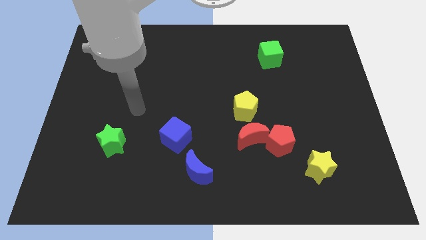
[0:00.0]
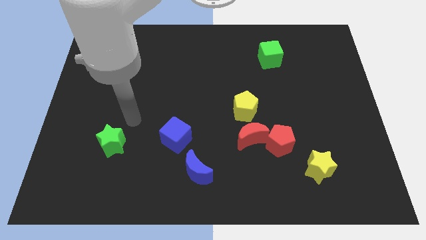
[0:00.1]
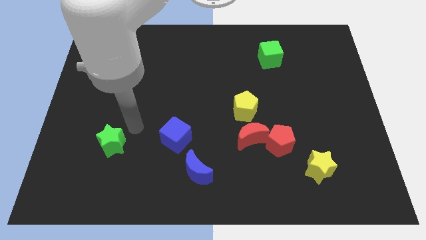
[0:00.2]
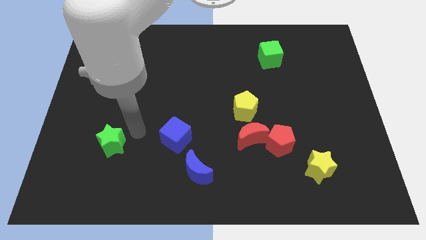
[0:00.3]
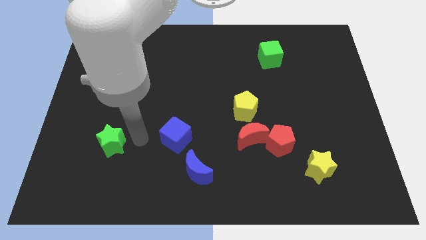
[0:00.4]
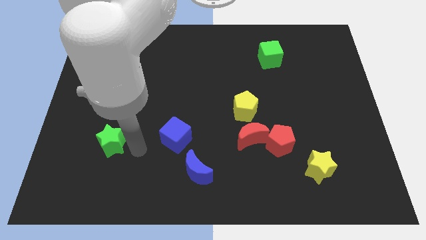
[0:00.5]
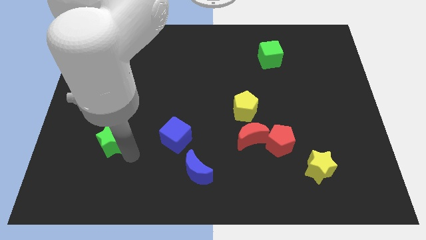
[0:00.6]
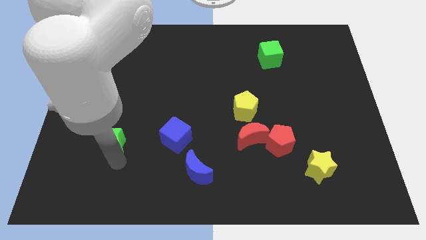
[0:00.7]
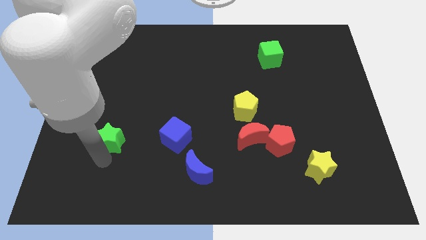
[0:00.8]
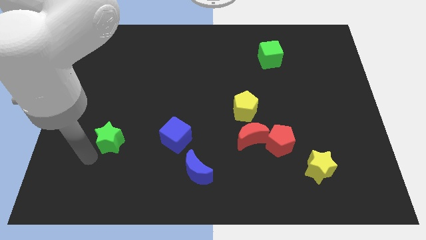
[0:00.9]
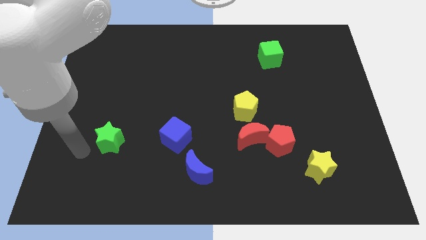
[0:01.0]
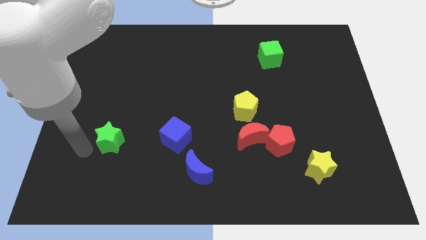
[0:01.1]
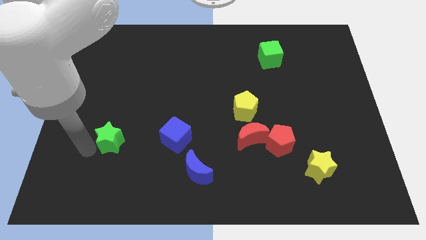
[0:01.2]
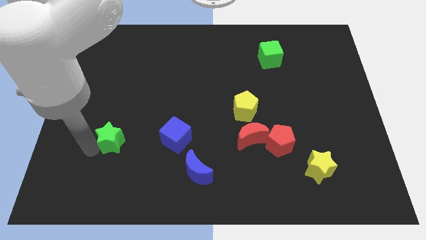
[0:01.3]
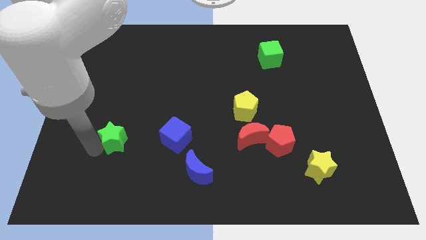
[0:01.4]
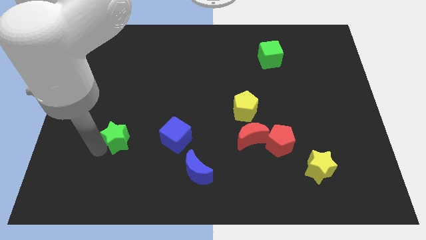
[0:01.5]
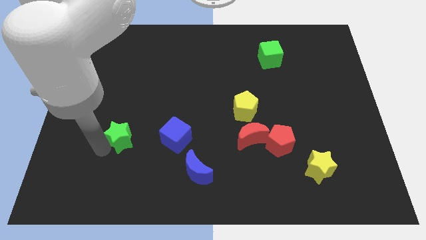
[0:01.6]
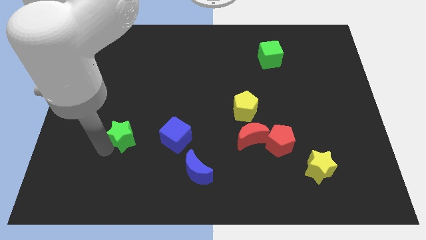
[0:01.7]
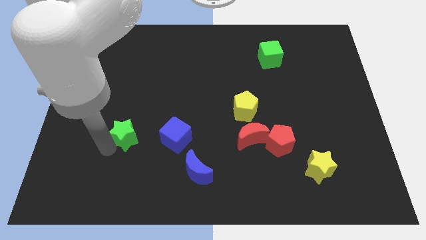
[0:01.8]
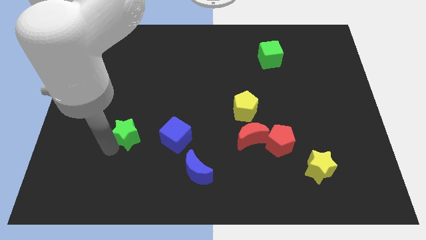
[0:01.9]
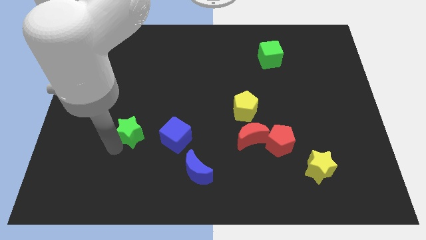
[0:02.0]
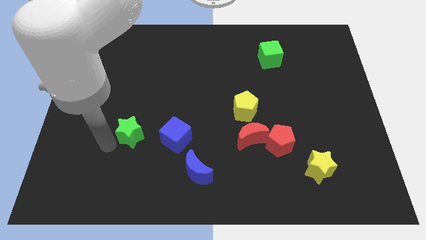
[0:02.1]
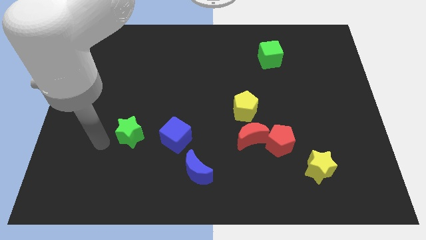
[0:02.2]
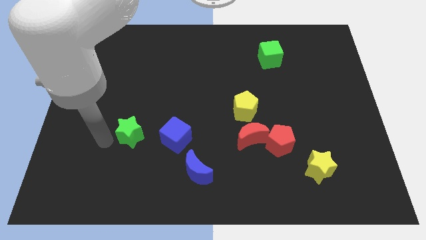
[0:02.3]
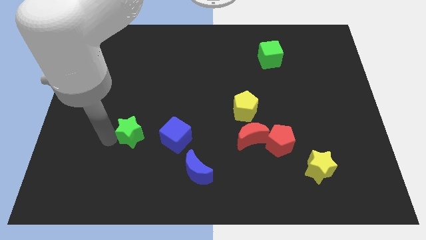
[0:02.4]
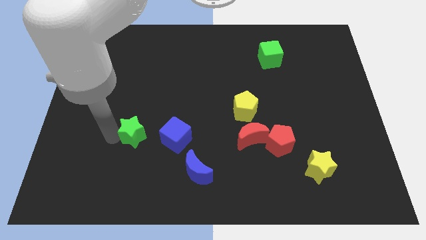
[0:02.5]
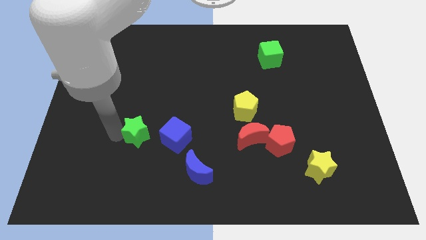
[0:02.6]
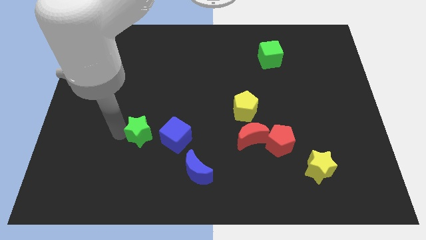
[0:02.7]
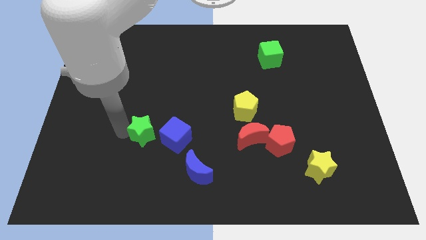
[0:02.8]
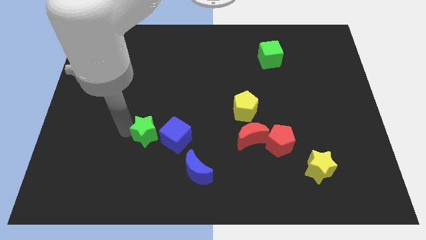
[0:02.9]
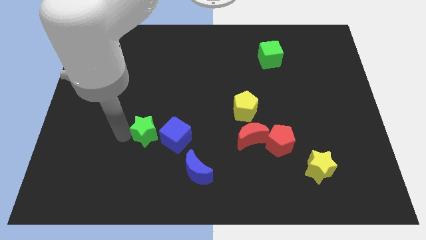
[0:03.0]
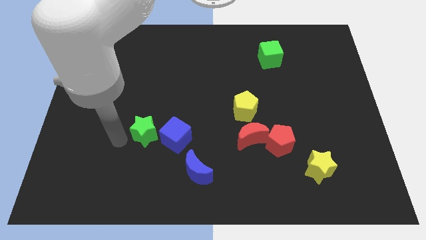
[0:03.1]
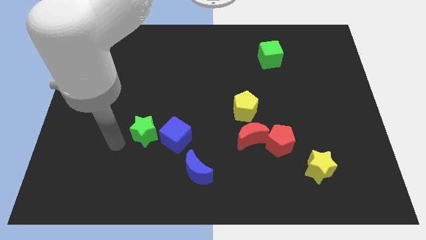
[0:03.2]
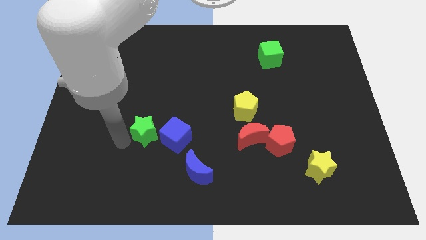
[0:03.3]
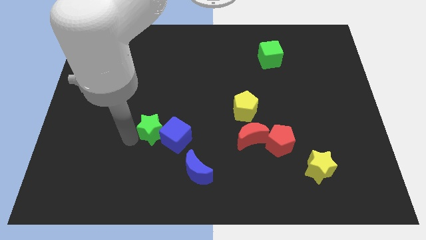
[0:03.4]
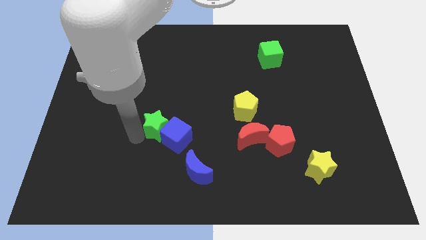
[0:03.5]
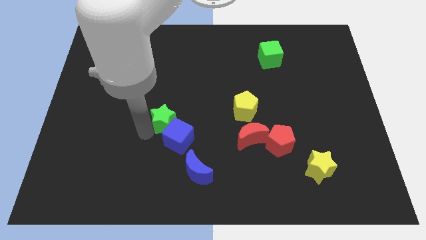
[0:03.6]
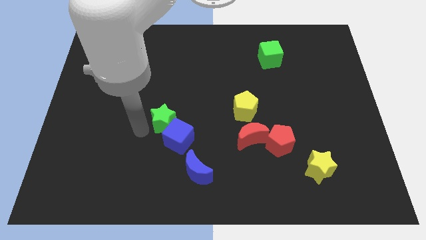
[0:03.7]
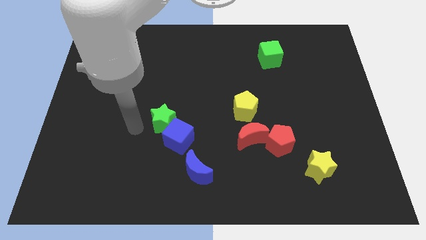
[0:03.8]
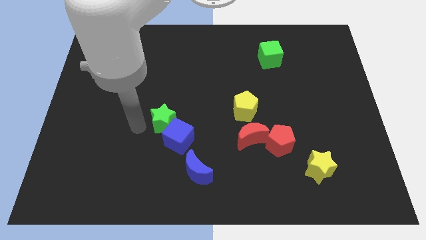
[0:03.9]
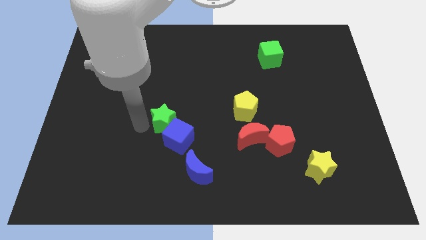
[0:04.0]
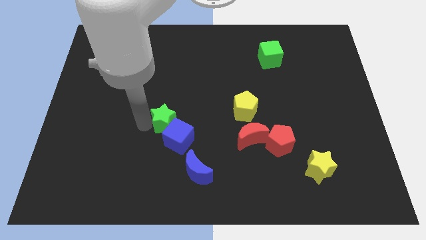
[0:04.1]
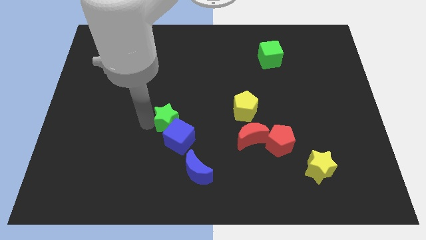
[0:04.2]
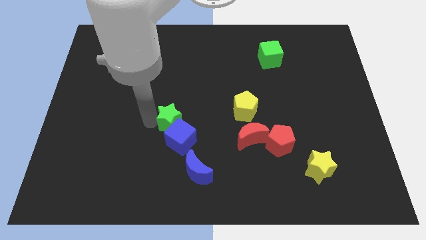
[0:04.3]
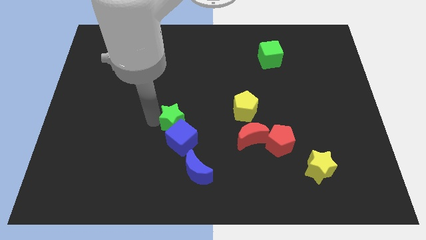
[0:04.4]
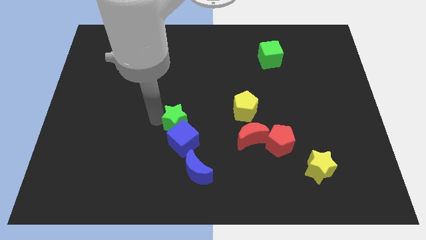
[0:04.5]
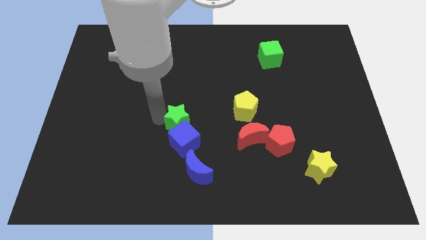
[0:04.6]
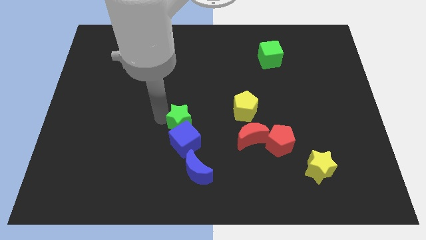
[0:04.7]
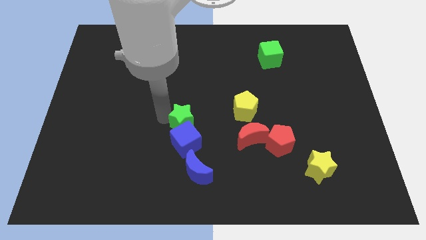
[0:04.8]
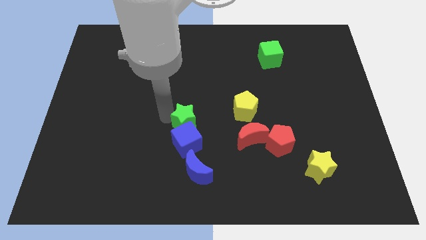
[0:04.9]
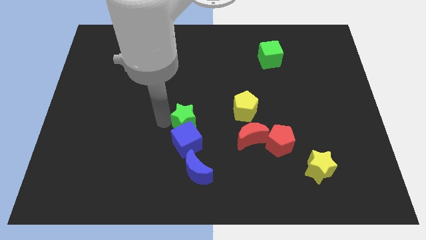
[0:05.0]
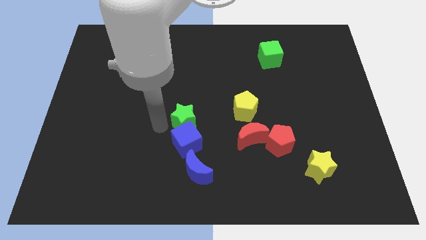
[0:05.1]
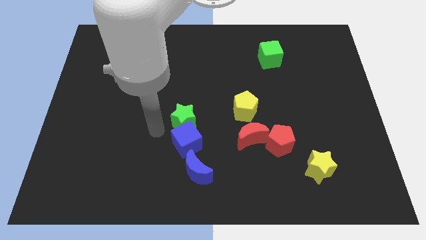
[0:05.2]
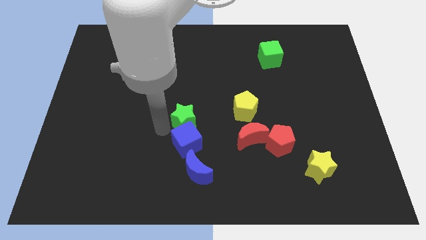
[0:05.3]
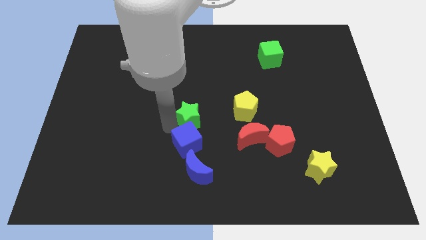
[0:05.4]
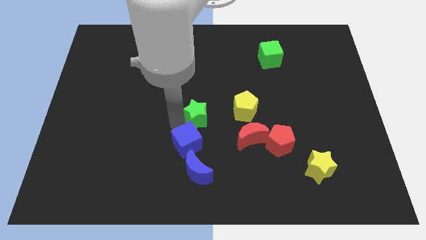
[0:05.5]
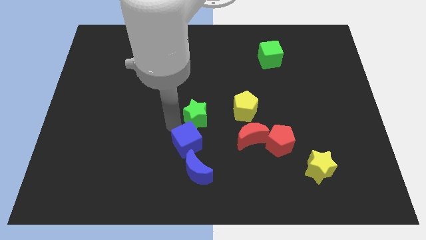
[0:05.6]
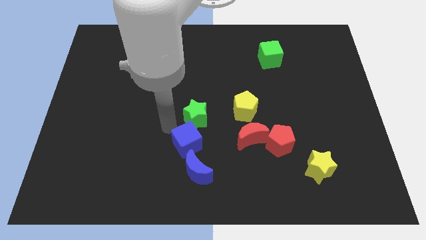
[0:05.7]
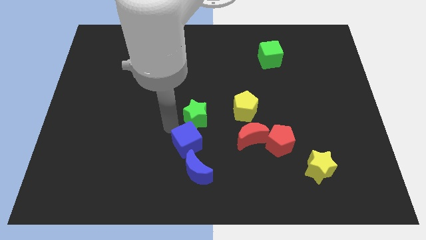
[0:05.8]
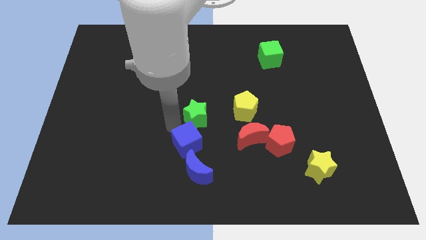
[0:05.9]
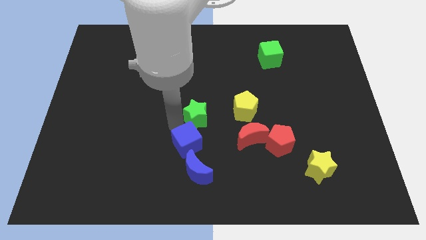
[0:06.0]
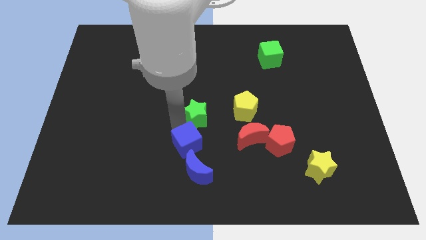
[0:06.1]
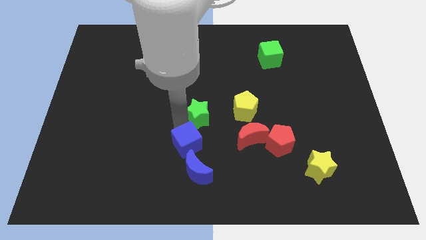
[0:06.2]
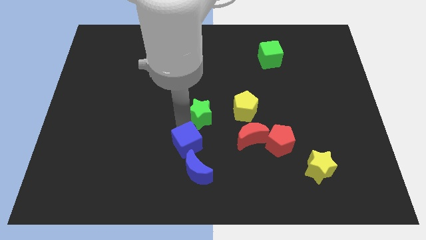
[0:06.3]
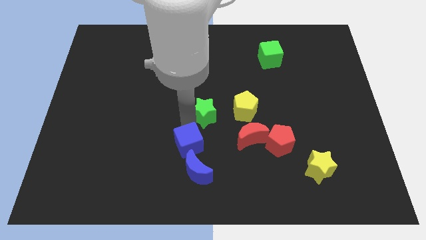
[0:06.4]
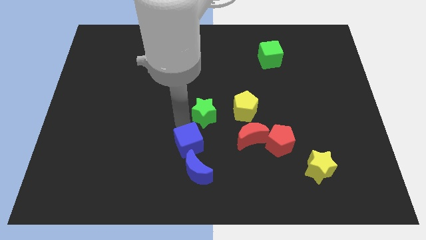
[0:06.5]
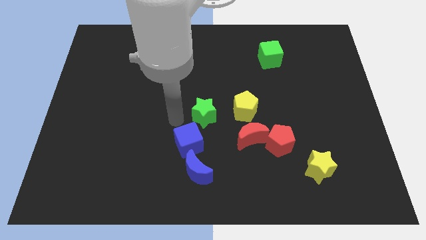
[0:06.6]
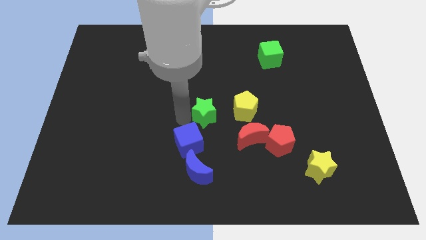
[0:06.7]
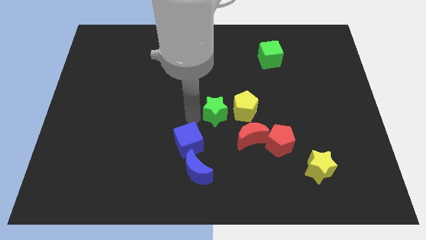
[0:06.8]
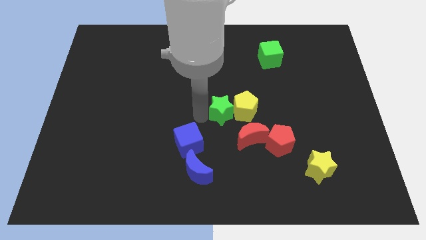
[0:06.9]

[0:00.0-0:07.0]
push the green star towards the yellow pentagon

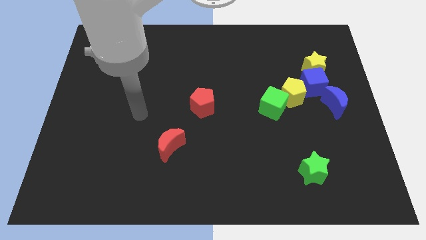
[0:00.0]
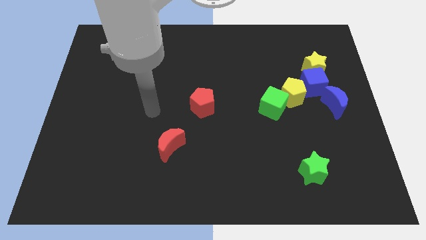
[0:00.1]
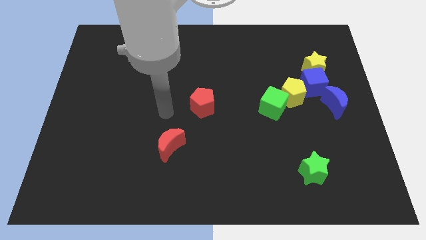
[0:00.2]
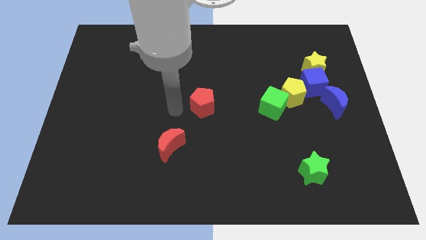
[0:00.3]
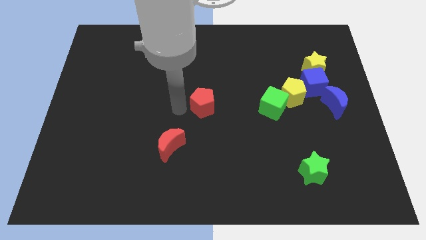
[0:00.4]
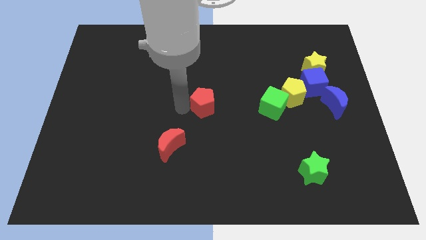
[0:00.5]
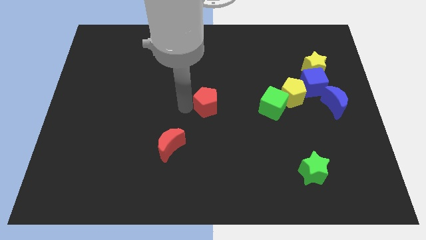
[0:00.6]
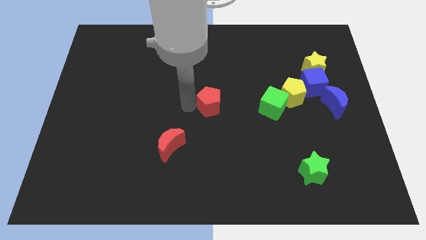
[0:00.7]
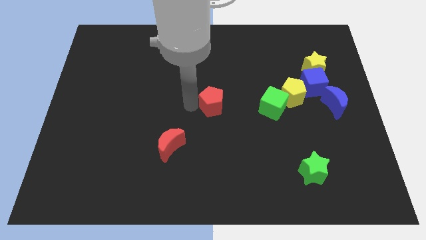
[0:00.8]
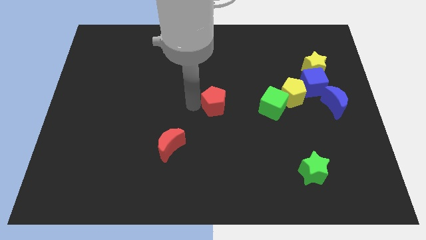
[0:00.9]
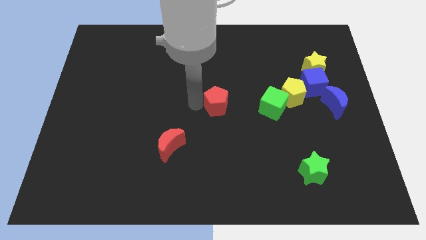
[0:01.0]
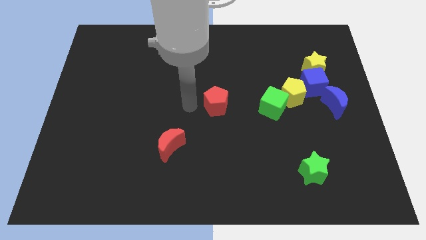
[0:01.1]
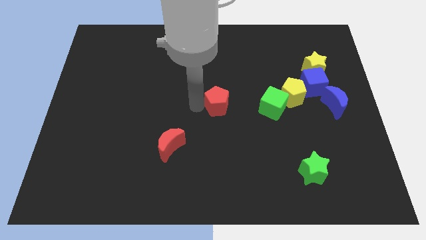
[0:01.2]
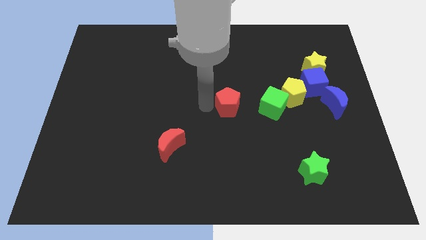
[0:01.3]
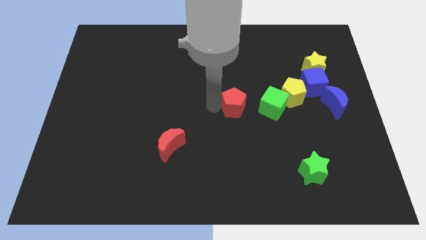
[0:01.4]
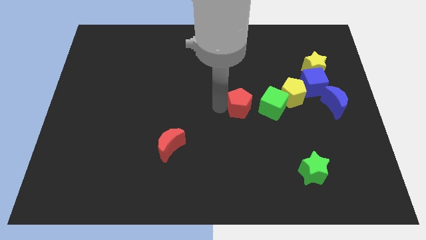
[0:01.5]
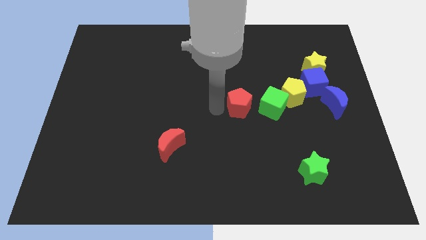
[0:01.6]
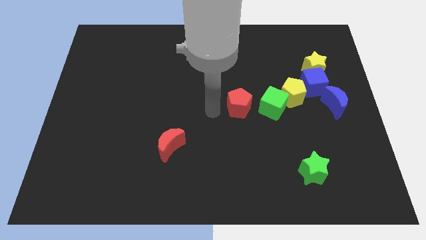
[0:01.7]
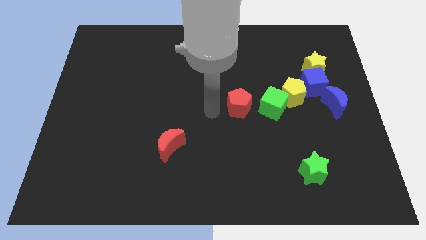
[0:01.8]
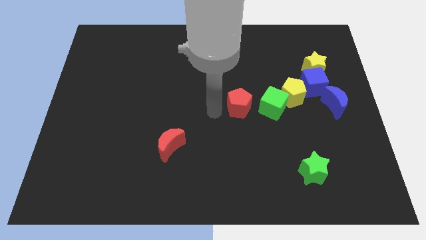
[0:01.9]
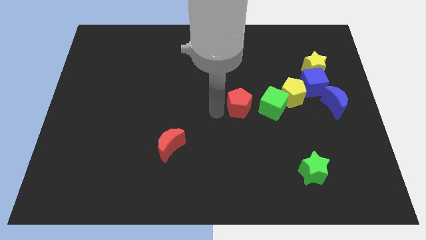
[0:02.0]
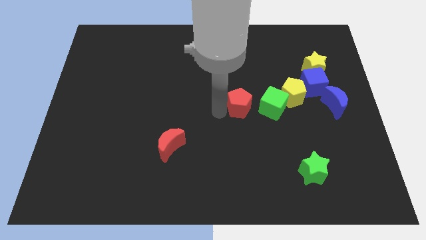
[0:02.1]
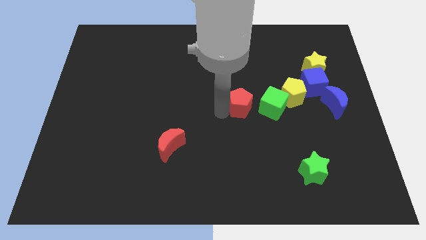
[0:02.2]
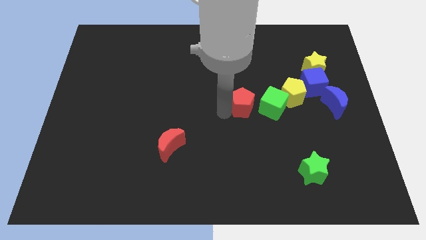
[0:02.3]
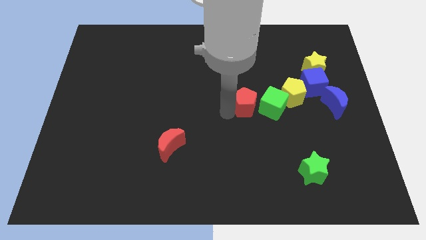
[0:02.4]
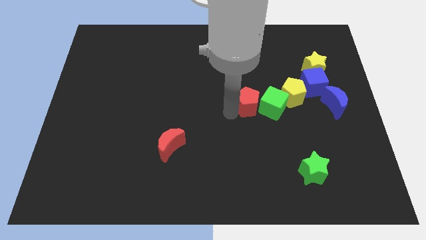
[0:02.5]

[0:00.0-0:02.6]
push the red pentagon next to the green cube
